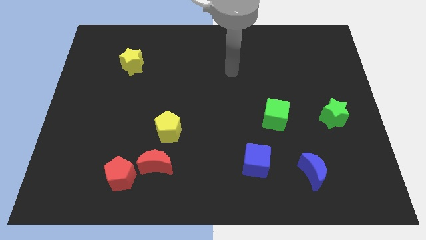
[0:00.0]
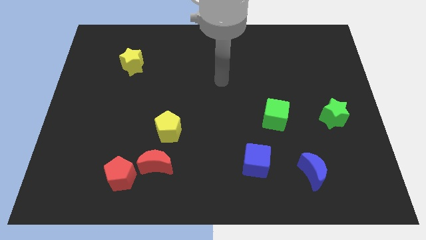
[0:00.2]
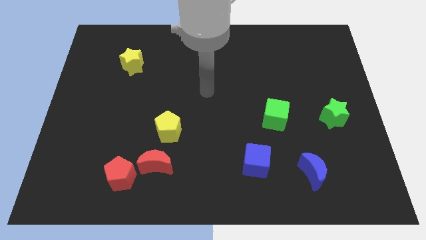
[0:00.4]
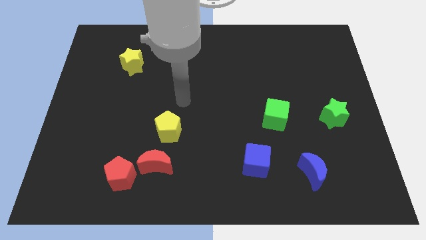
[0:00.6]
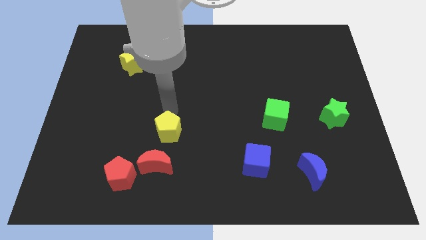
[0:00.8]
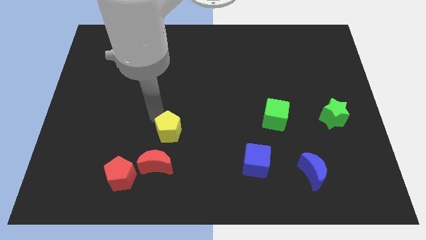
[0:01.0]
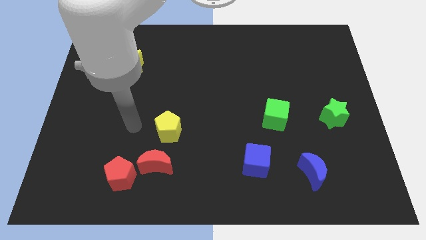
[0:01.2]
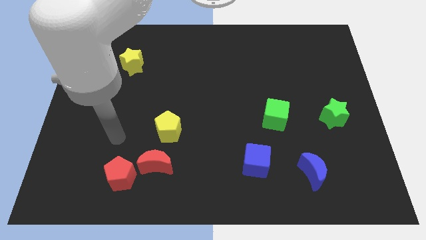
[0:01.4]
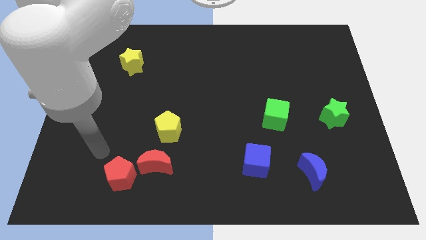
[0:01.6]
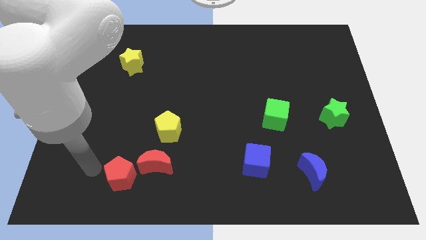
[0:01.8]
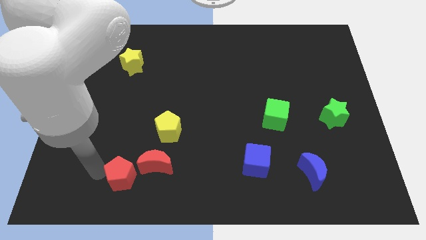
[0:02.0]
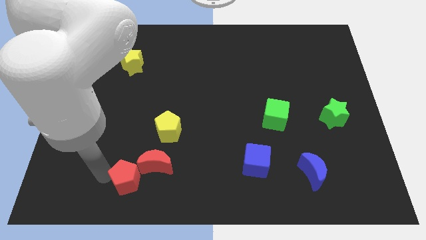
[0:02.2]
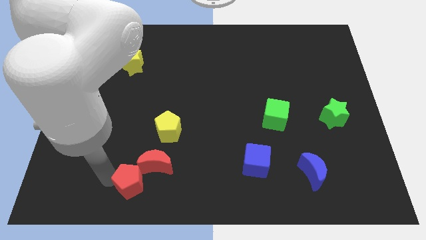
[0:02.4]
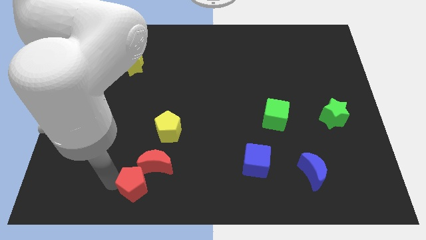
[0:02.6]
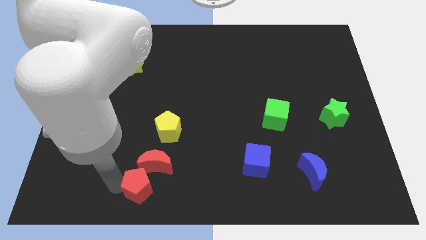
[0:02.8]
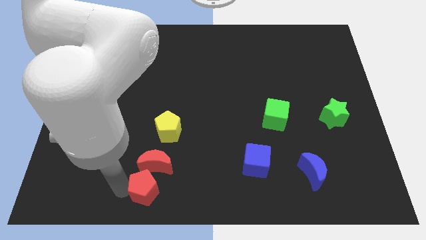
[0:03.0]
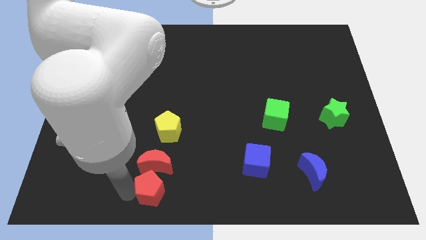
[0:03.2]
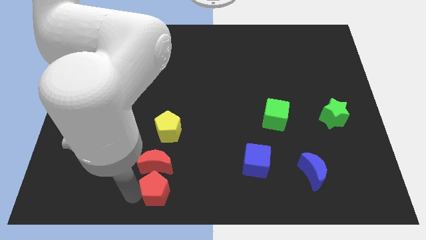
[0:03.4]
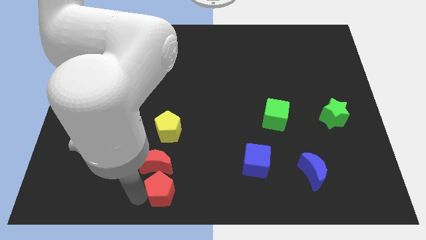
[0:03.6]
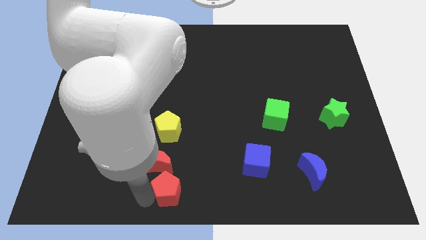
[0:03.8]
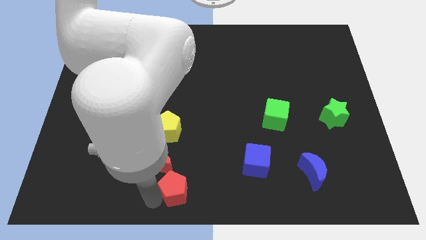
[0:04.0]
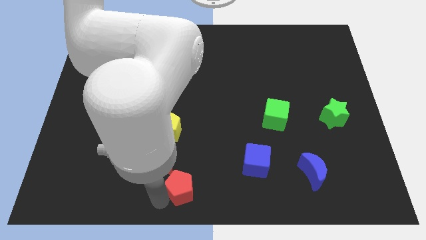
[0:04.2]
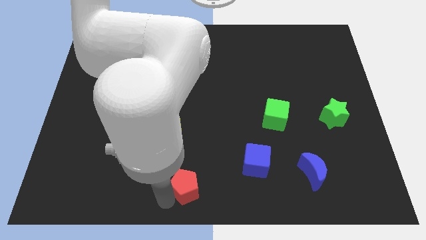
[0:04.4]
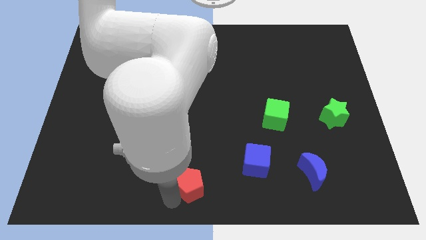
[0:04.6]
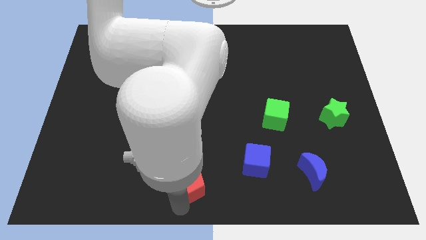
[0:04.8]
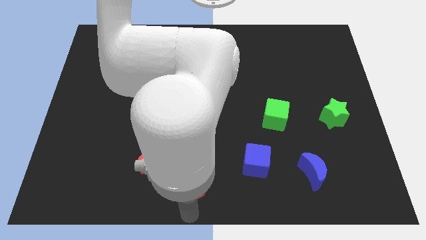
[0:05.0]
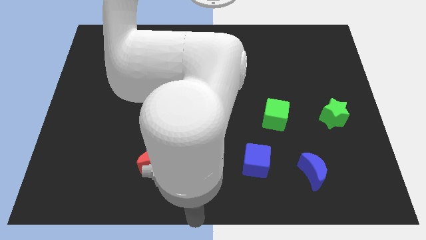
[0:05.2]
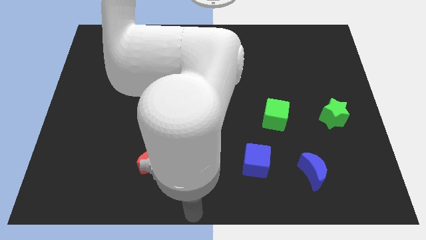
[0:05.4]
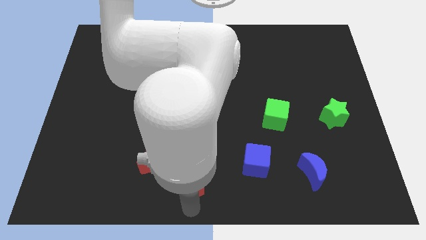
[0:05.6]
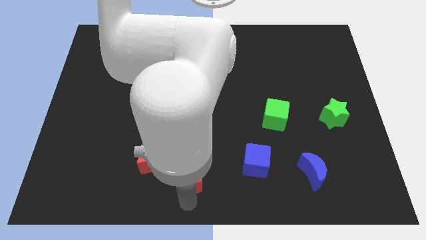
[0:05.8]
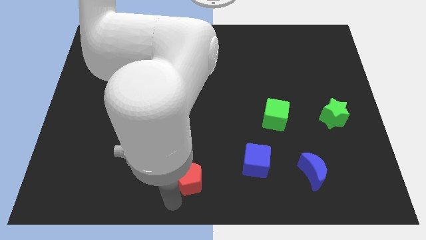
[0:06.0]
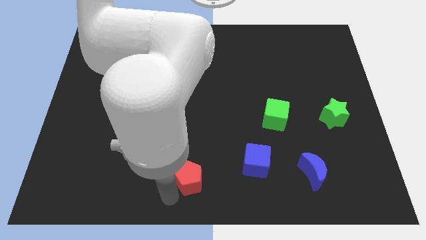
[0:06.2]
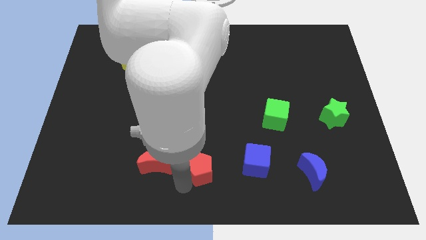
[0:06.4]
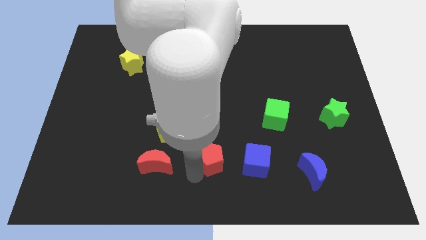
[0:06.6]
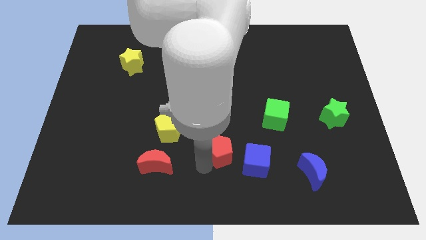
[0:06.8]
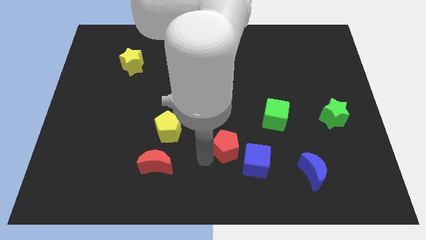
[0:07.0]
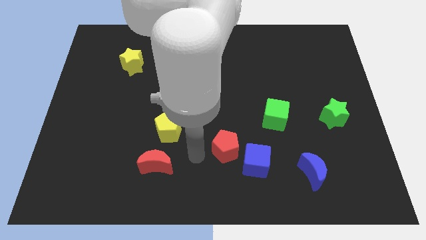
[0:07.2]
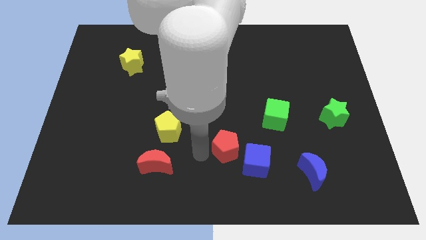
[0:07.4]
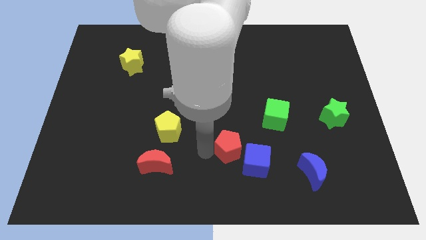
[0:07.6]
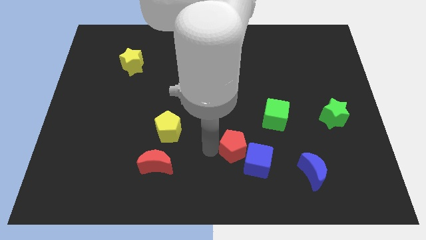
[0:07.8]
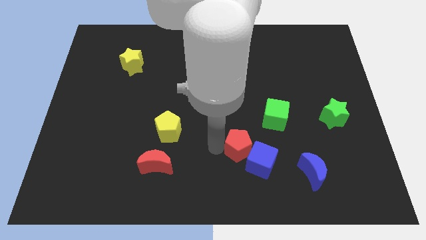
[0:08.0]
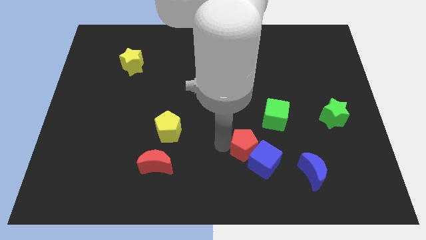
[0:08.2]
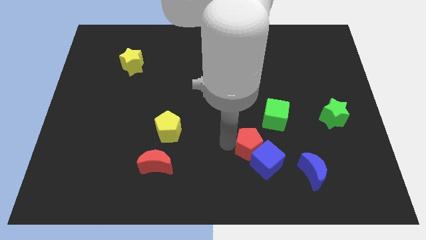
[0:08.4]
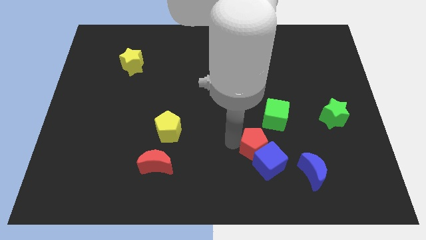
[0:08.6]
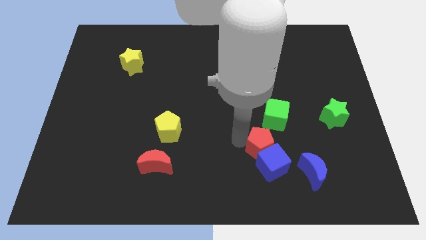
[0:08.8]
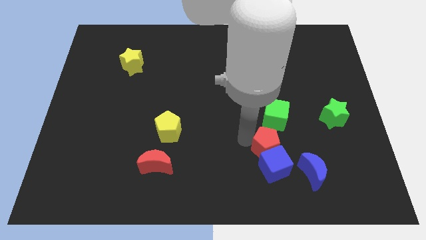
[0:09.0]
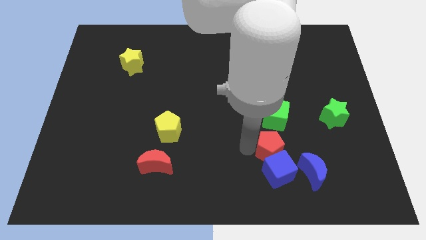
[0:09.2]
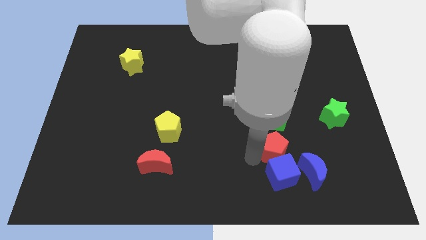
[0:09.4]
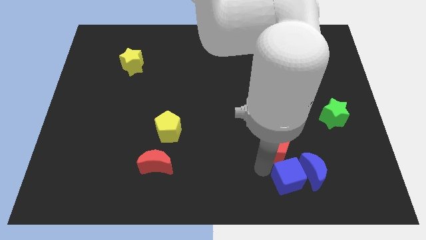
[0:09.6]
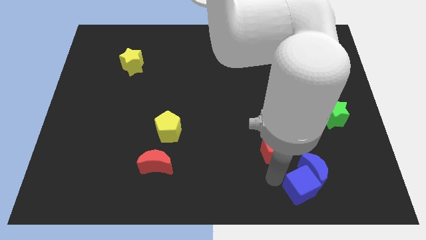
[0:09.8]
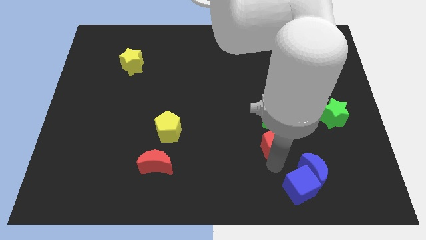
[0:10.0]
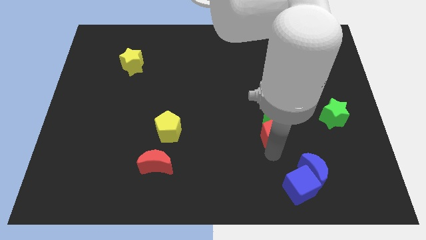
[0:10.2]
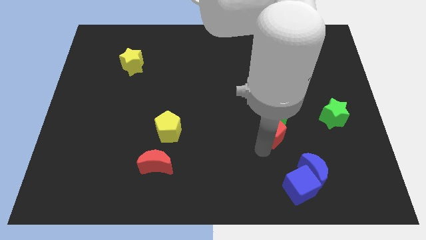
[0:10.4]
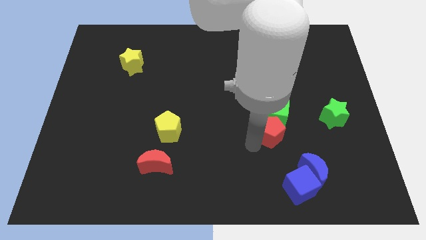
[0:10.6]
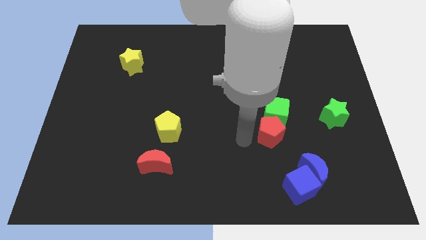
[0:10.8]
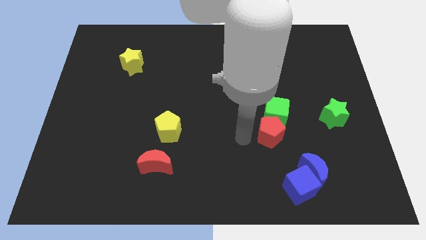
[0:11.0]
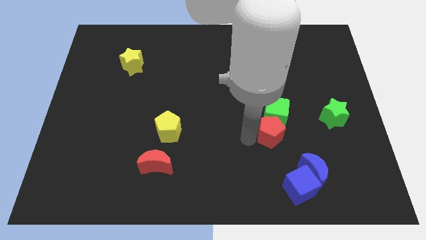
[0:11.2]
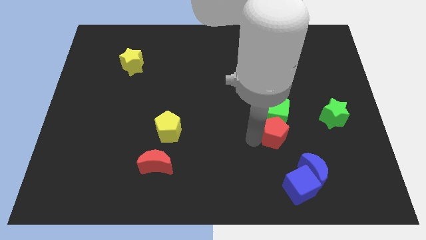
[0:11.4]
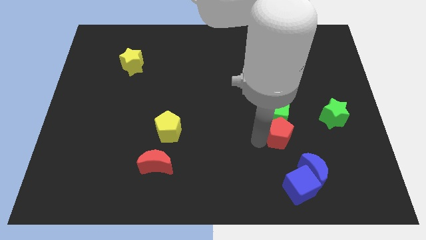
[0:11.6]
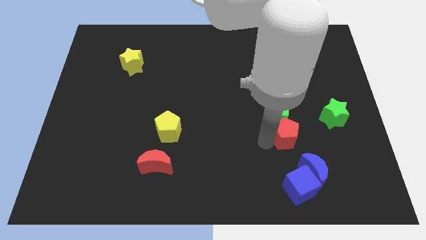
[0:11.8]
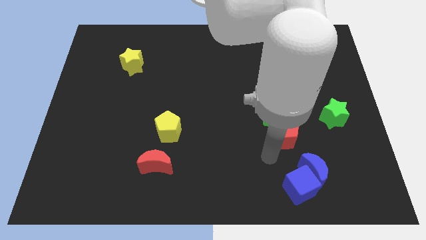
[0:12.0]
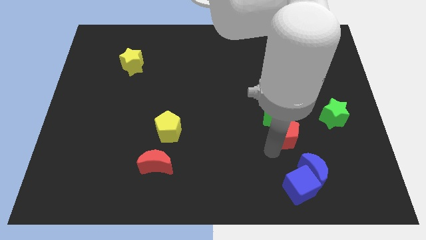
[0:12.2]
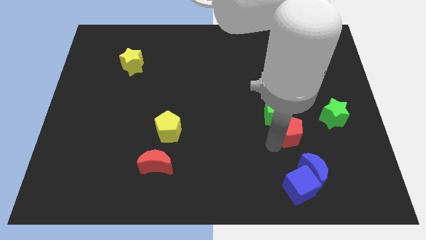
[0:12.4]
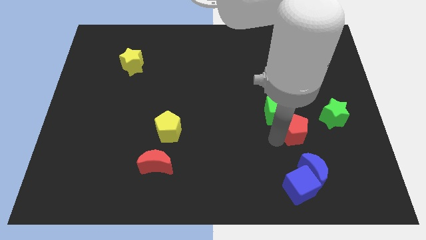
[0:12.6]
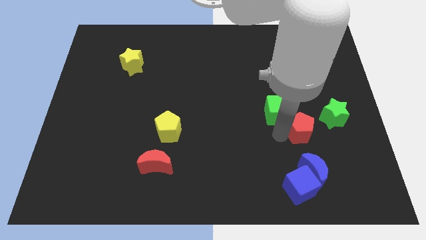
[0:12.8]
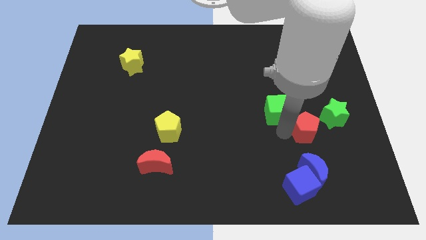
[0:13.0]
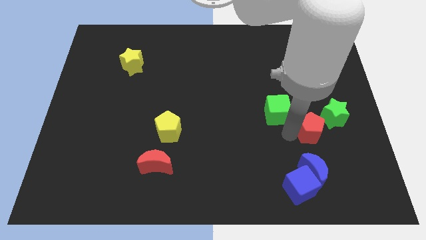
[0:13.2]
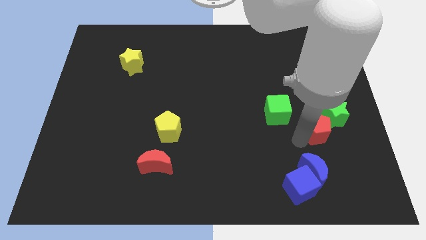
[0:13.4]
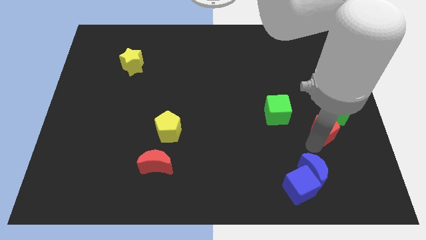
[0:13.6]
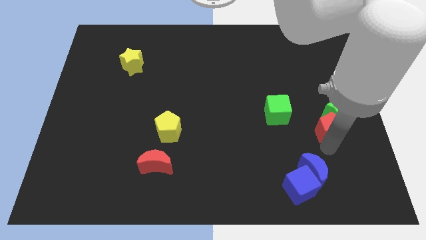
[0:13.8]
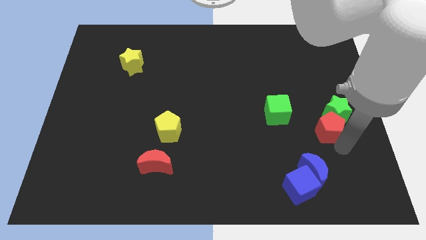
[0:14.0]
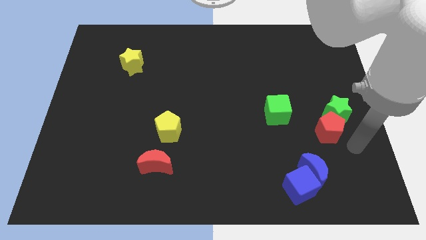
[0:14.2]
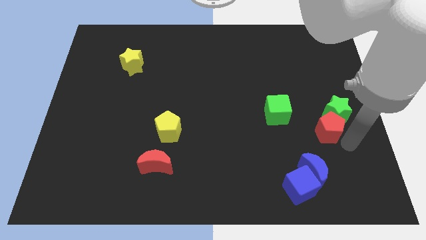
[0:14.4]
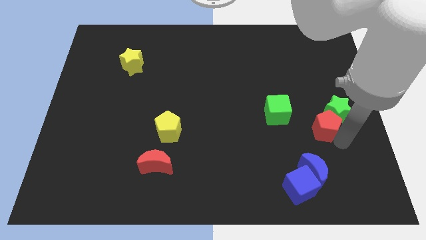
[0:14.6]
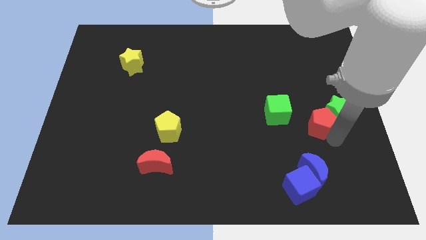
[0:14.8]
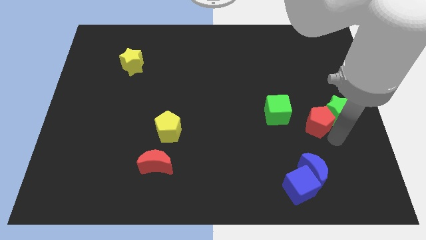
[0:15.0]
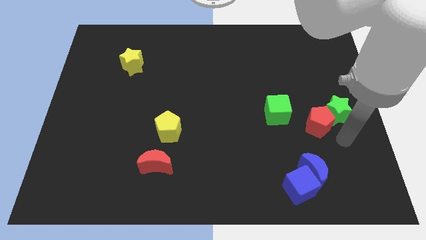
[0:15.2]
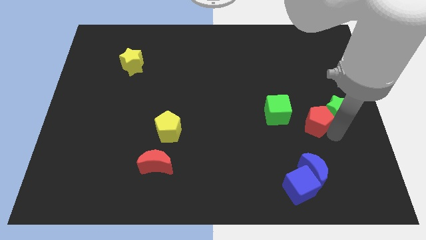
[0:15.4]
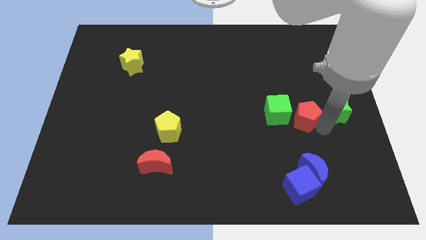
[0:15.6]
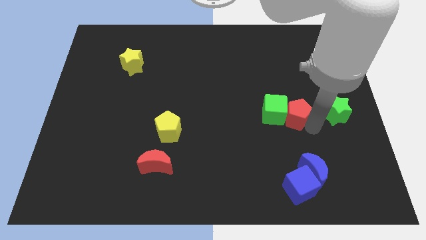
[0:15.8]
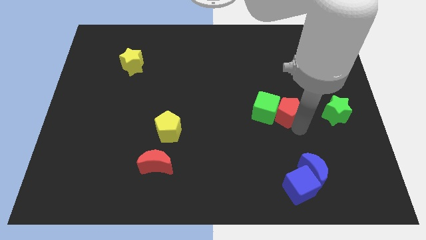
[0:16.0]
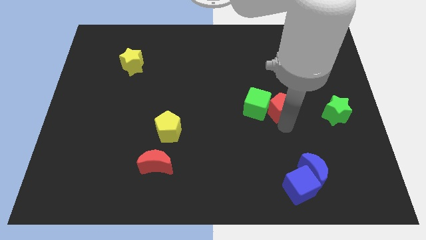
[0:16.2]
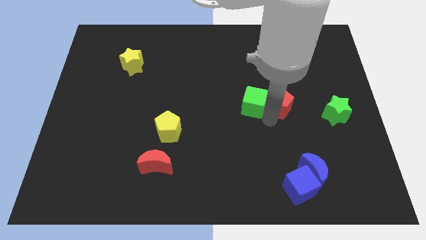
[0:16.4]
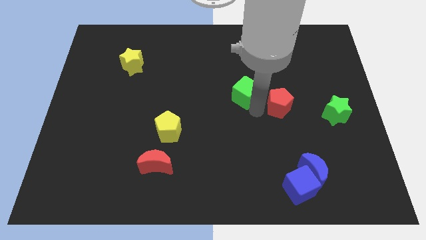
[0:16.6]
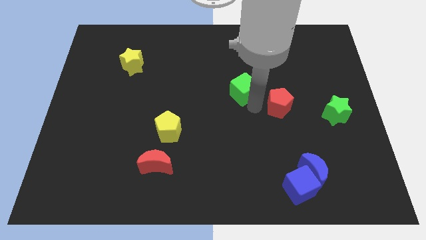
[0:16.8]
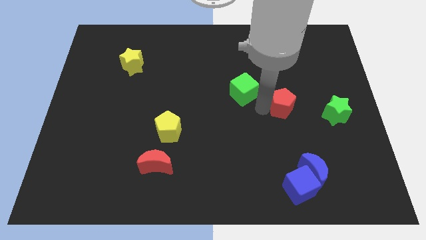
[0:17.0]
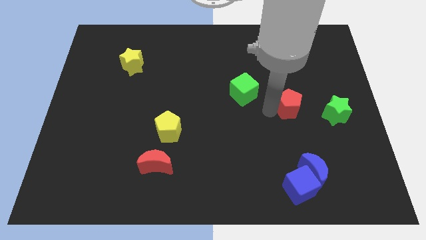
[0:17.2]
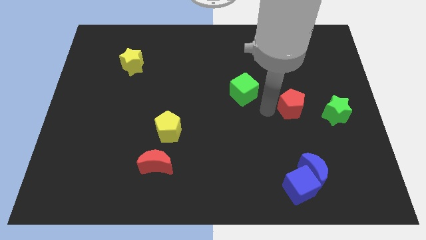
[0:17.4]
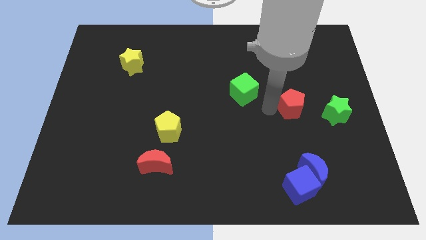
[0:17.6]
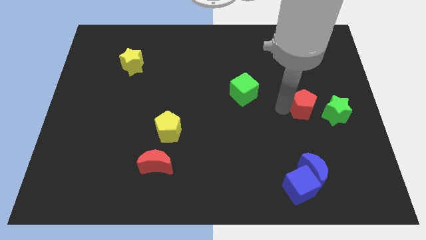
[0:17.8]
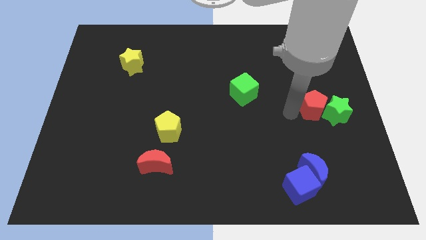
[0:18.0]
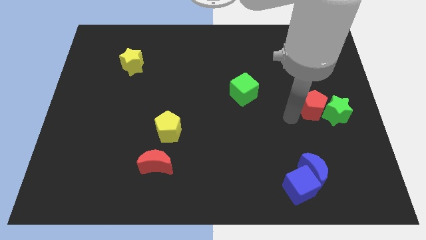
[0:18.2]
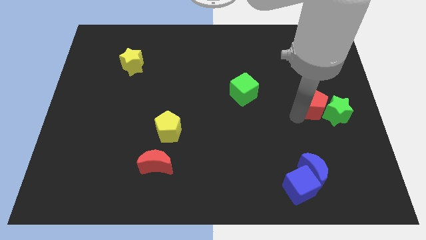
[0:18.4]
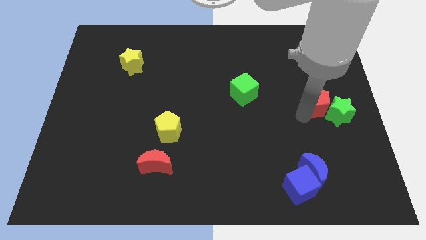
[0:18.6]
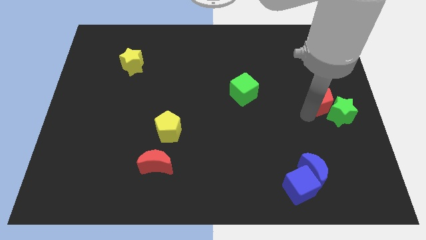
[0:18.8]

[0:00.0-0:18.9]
push the red pentagon to the right side
